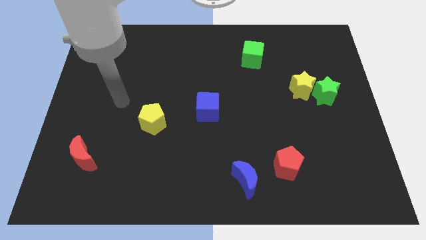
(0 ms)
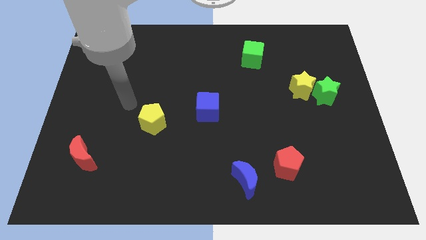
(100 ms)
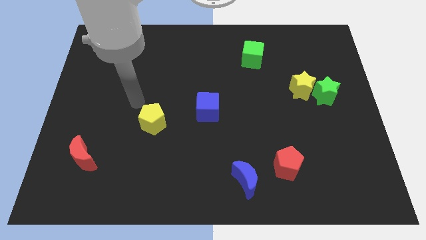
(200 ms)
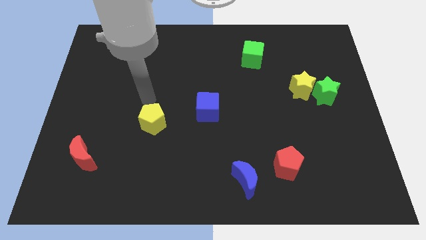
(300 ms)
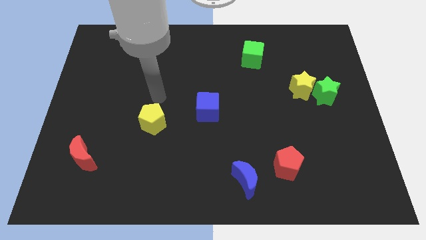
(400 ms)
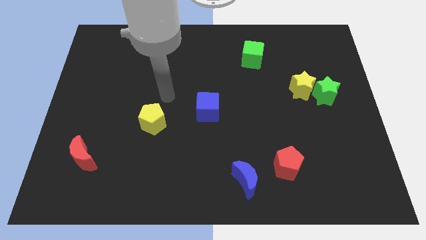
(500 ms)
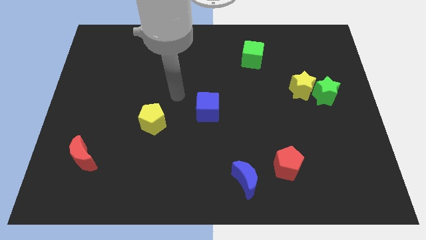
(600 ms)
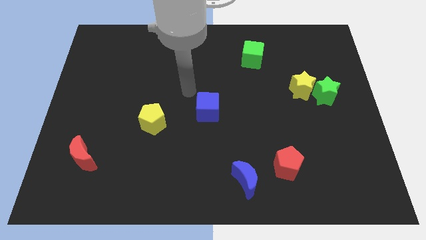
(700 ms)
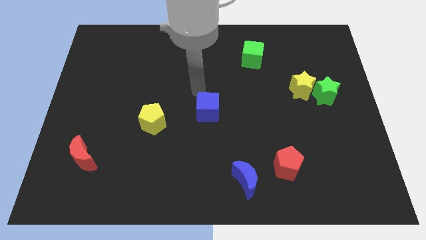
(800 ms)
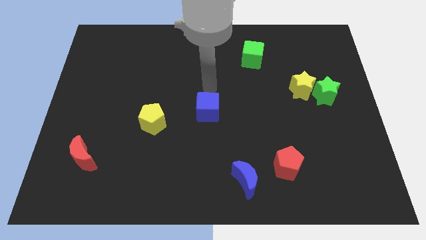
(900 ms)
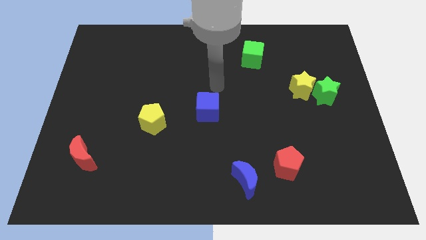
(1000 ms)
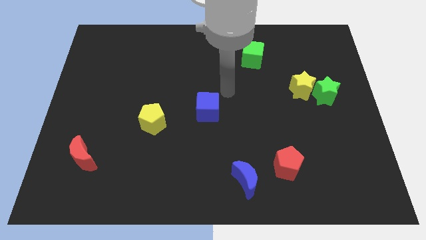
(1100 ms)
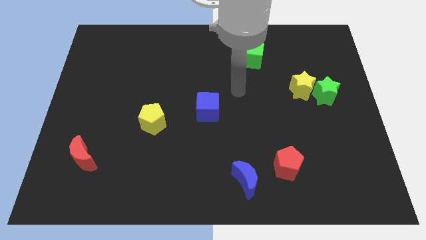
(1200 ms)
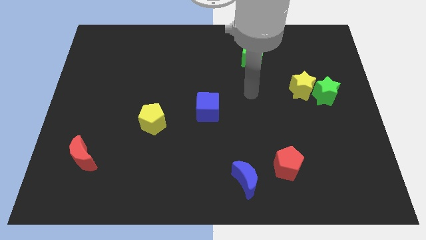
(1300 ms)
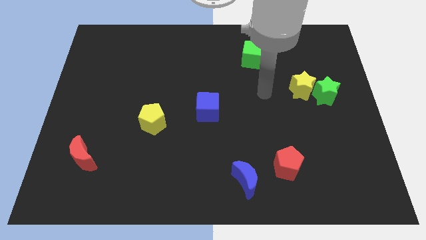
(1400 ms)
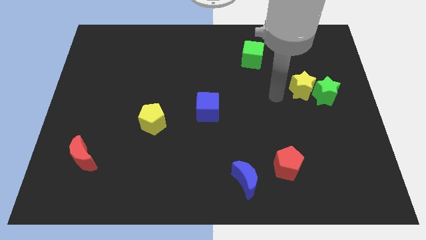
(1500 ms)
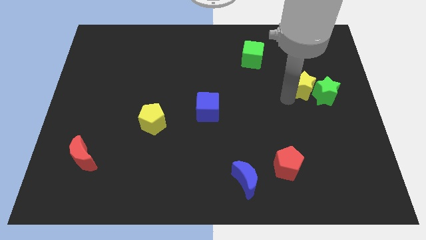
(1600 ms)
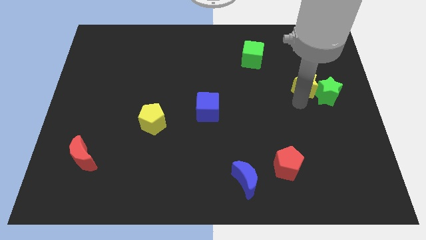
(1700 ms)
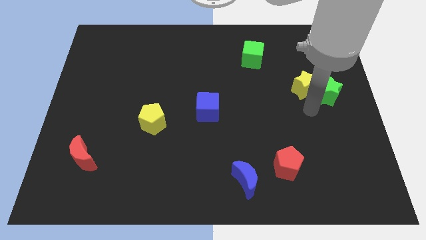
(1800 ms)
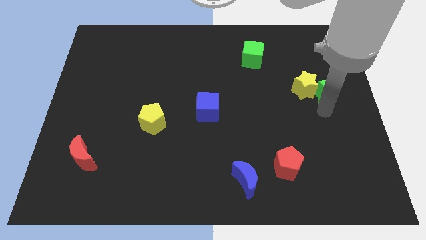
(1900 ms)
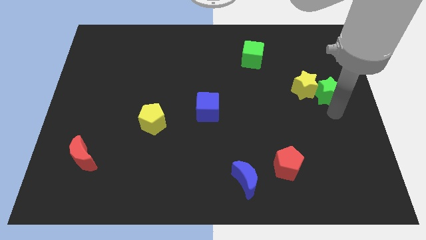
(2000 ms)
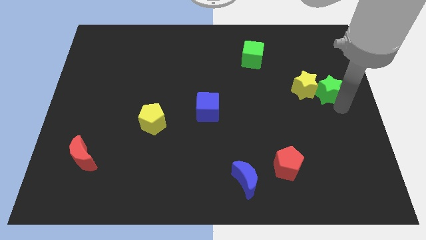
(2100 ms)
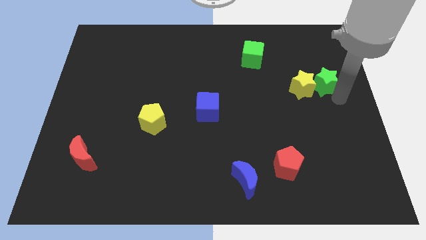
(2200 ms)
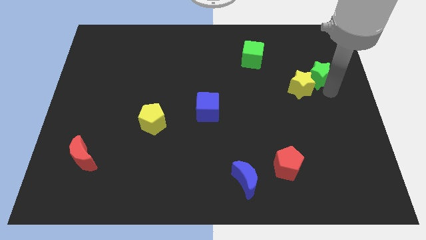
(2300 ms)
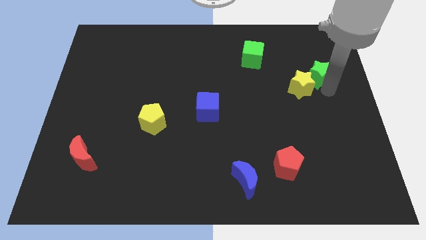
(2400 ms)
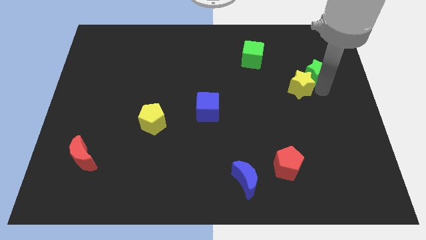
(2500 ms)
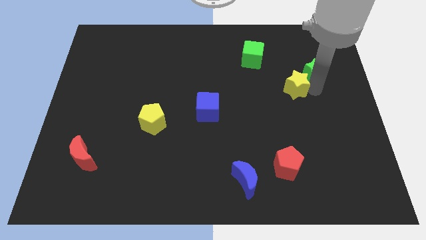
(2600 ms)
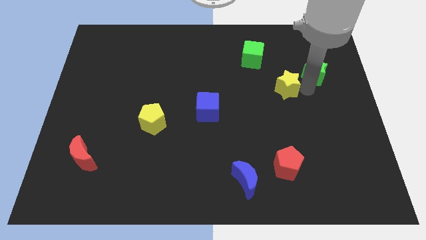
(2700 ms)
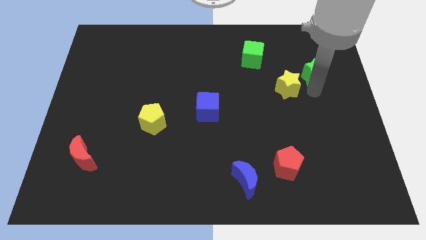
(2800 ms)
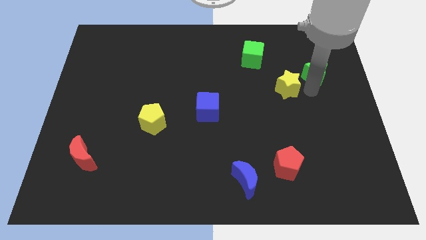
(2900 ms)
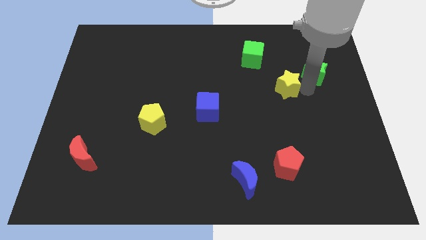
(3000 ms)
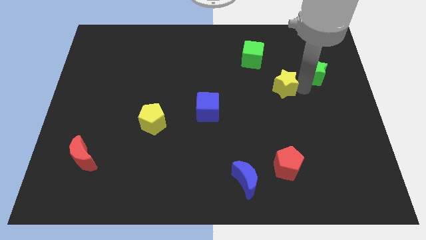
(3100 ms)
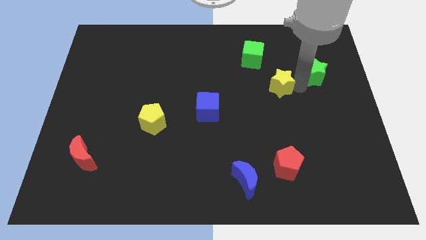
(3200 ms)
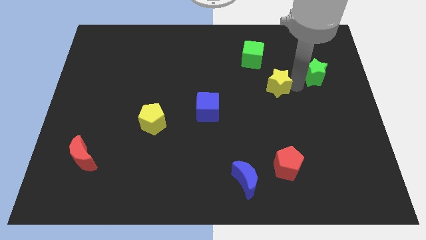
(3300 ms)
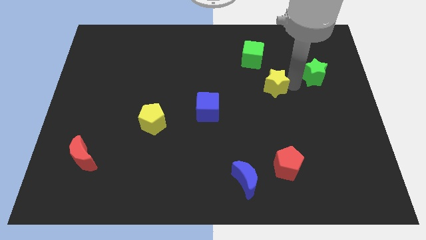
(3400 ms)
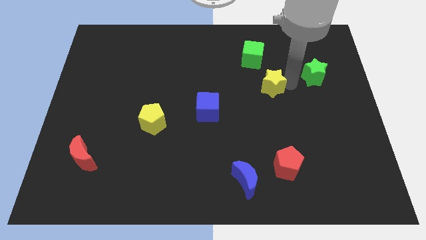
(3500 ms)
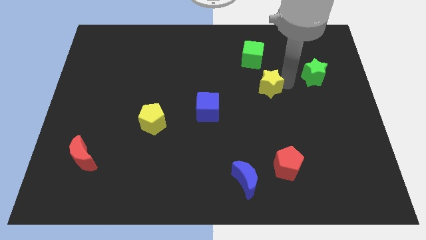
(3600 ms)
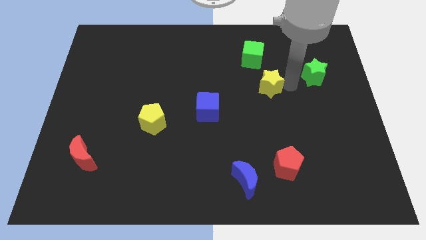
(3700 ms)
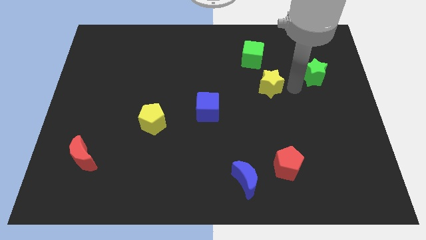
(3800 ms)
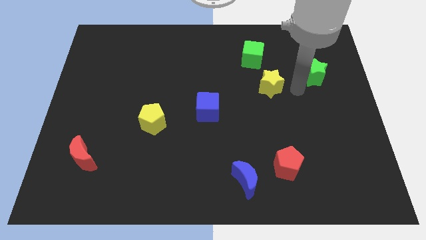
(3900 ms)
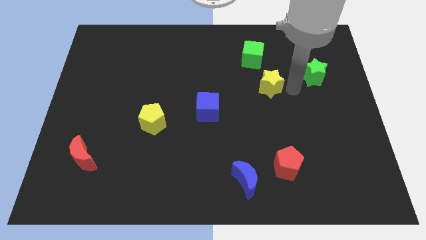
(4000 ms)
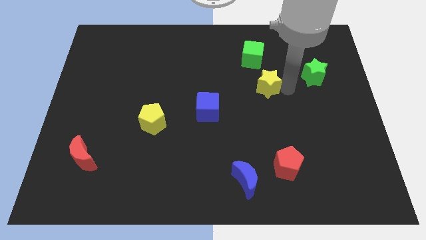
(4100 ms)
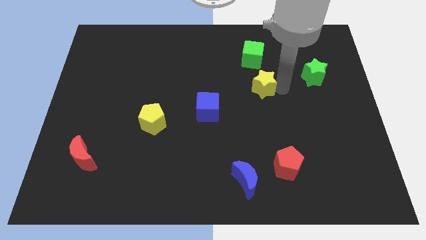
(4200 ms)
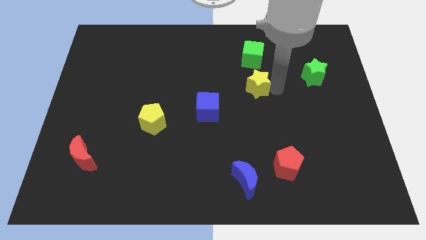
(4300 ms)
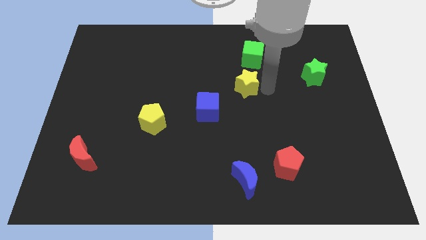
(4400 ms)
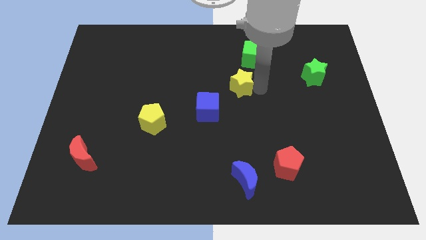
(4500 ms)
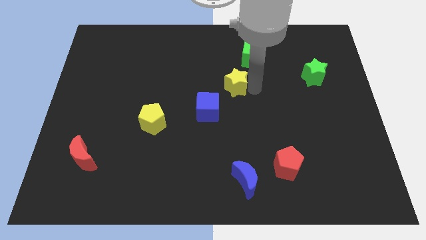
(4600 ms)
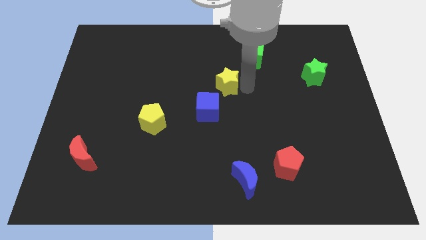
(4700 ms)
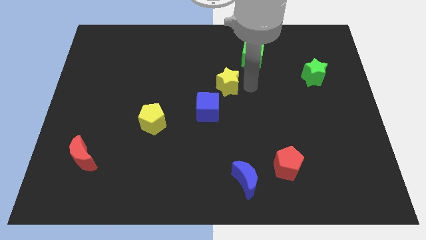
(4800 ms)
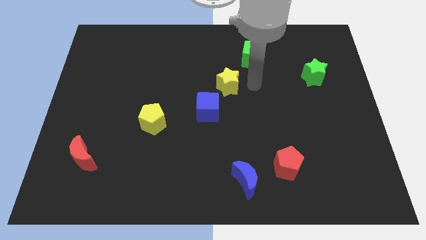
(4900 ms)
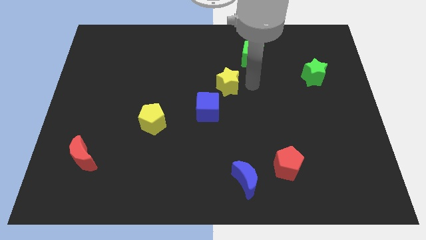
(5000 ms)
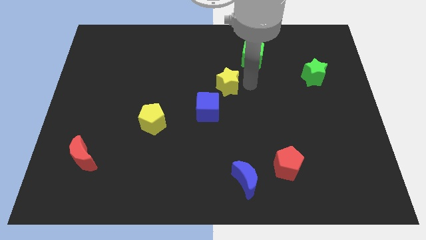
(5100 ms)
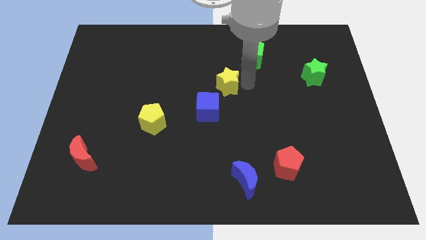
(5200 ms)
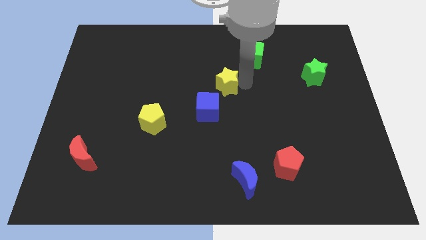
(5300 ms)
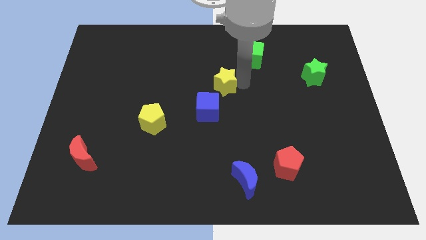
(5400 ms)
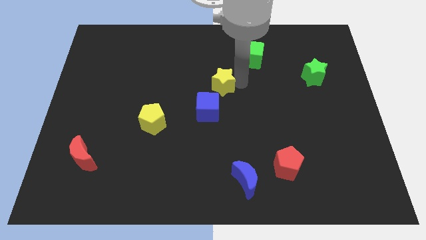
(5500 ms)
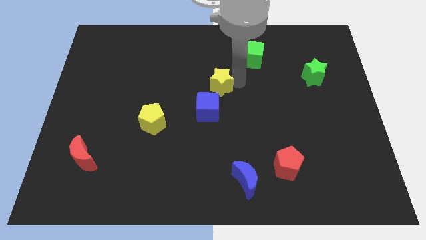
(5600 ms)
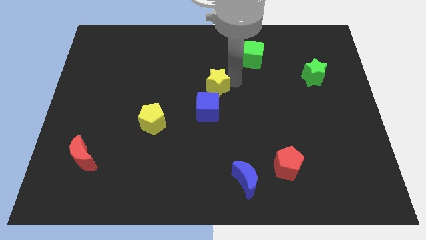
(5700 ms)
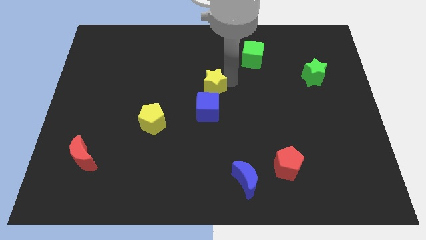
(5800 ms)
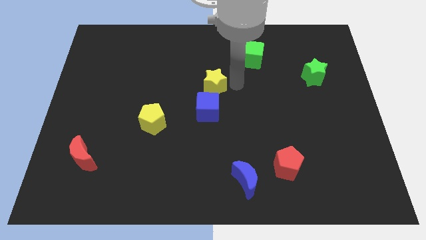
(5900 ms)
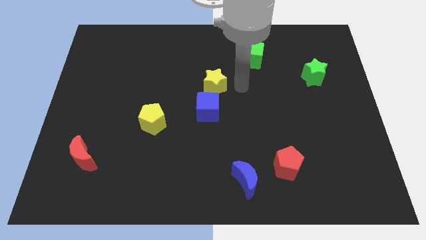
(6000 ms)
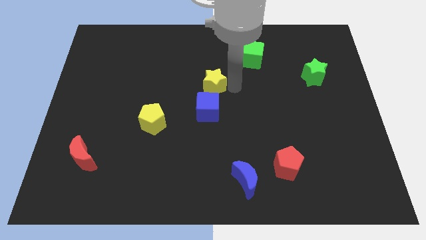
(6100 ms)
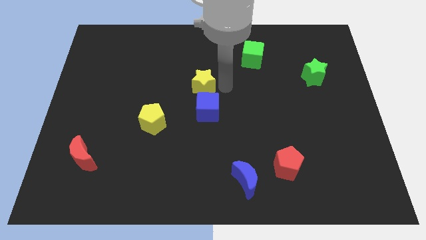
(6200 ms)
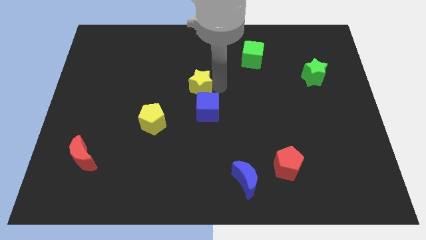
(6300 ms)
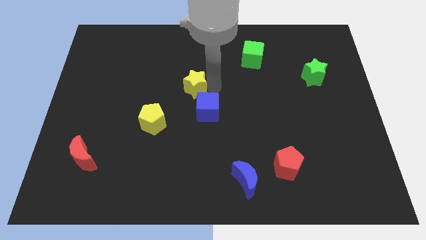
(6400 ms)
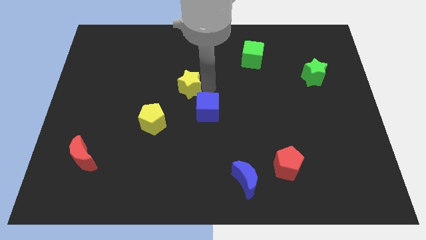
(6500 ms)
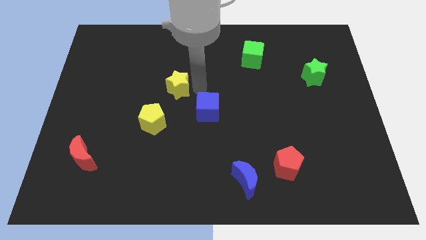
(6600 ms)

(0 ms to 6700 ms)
put the yellow star to the top side of the yellow pentagon
